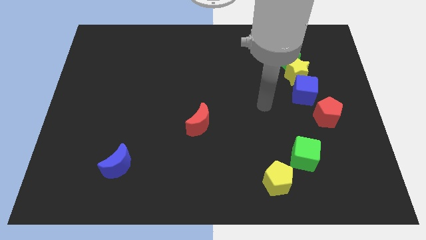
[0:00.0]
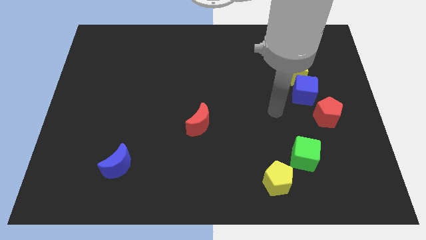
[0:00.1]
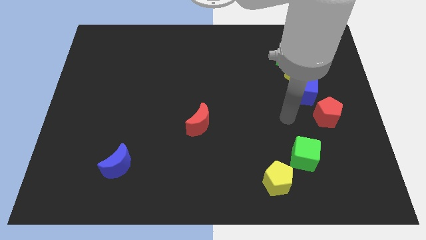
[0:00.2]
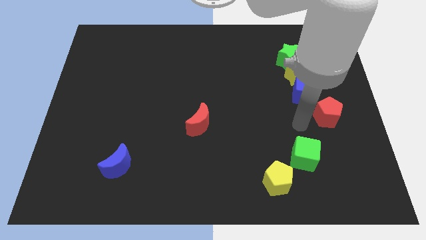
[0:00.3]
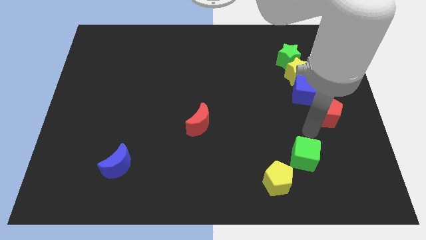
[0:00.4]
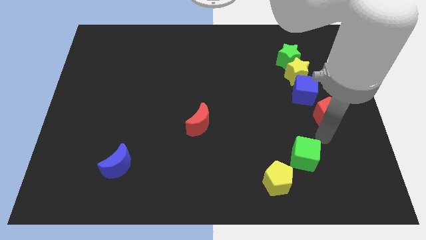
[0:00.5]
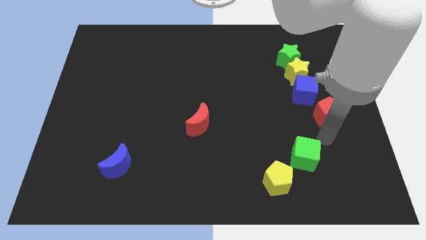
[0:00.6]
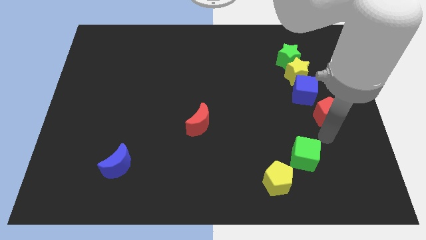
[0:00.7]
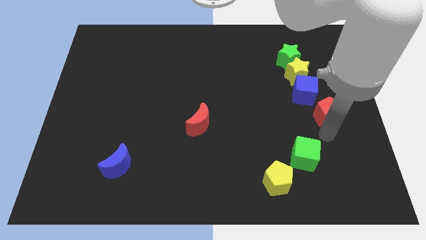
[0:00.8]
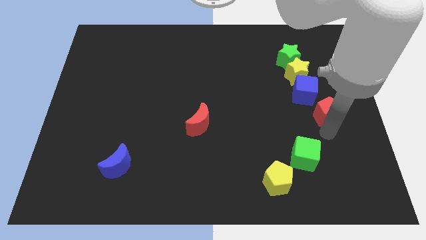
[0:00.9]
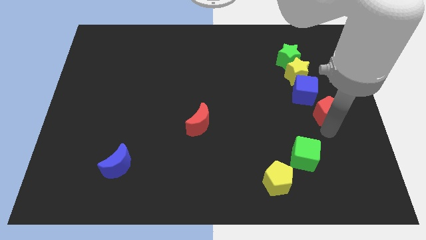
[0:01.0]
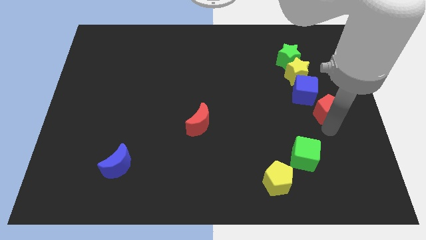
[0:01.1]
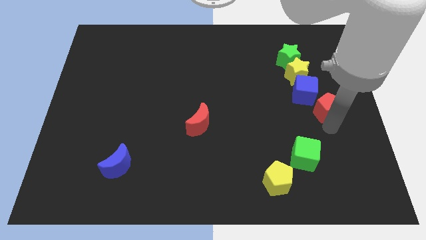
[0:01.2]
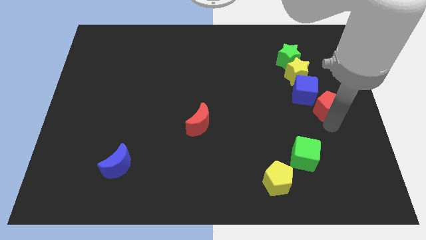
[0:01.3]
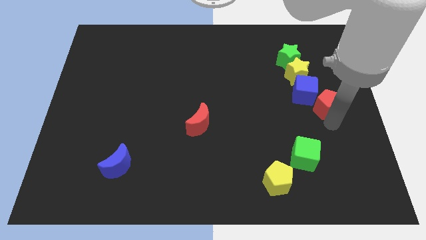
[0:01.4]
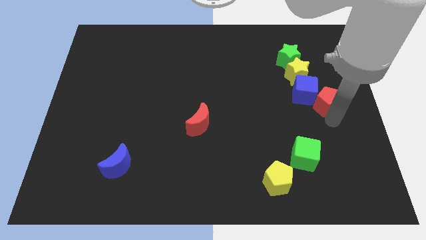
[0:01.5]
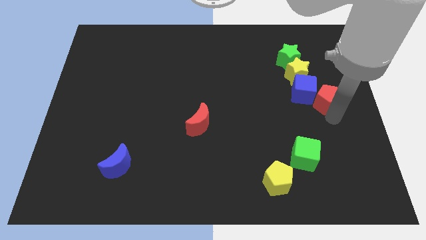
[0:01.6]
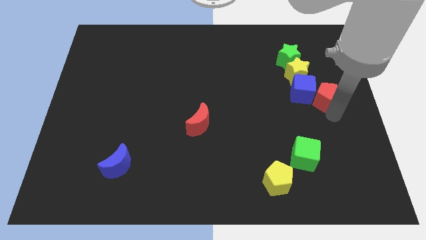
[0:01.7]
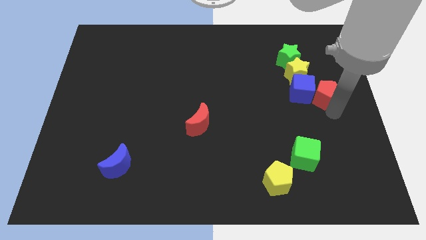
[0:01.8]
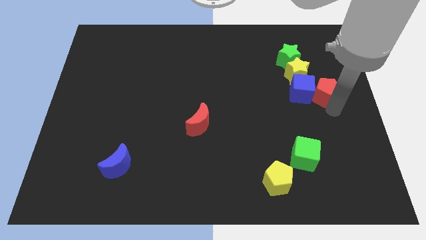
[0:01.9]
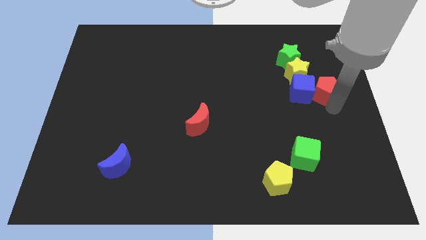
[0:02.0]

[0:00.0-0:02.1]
move the red pentagon a little bit up

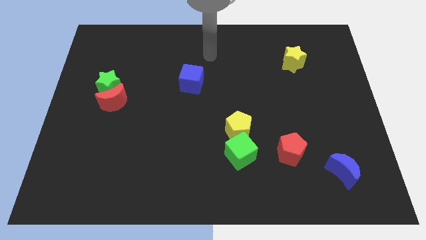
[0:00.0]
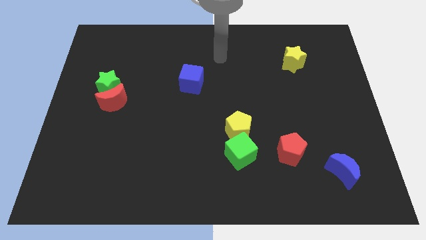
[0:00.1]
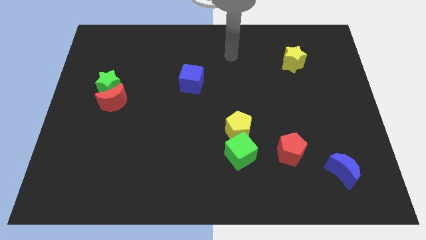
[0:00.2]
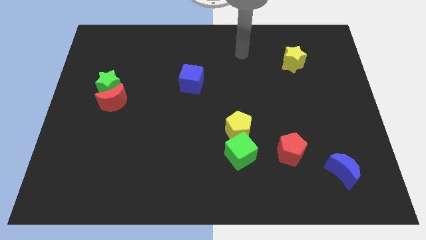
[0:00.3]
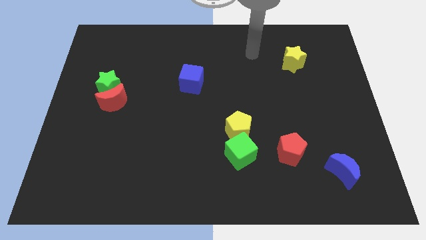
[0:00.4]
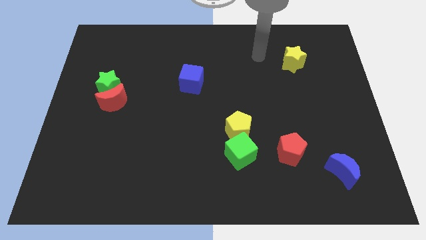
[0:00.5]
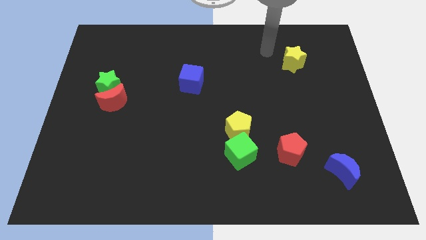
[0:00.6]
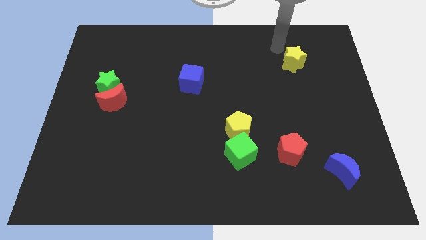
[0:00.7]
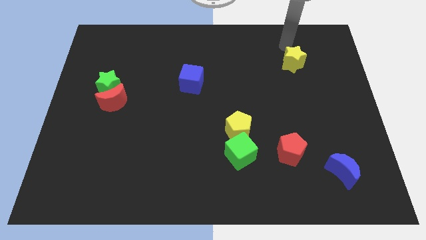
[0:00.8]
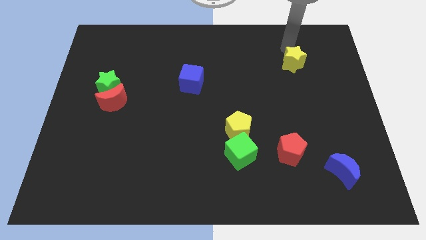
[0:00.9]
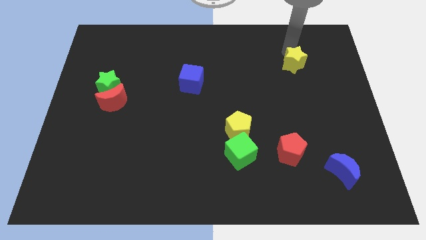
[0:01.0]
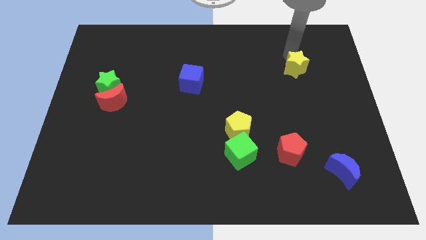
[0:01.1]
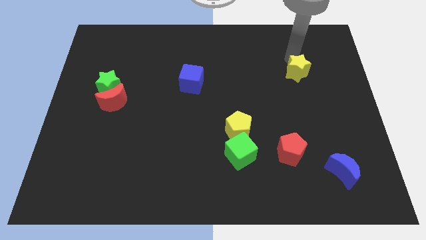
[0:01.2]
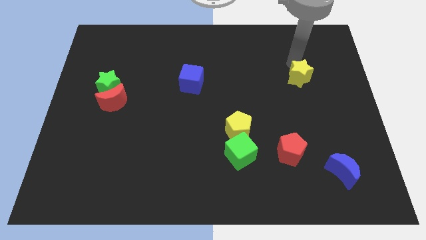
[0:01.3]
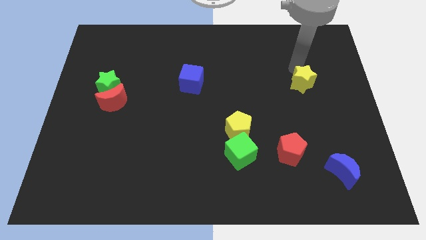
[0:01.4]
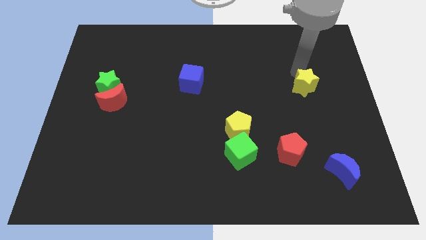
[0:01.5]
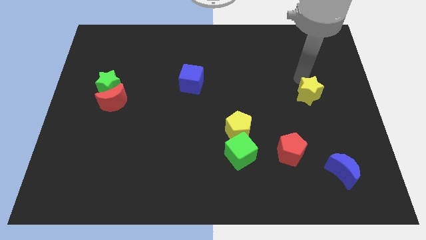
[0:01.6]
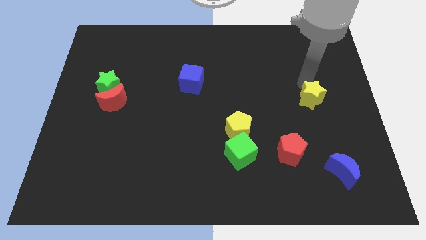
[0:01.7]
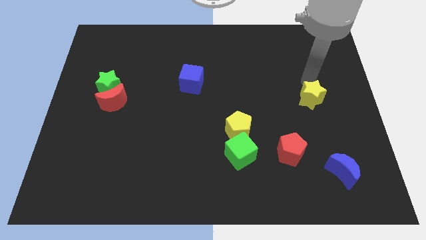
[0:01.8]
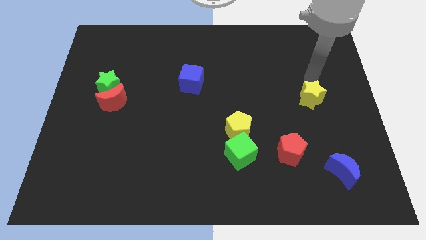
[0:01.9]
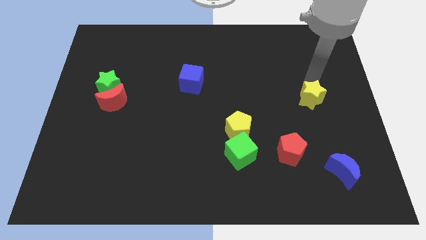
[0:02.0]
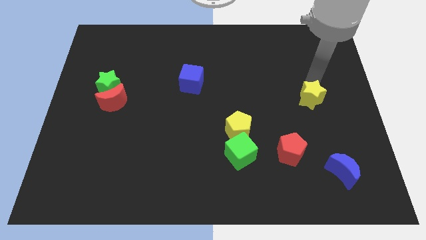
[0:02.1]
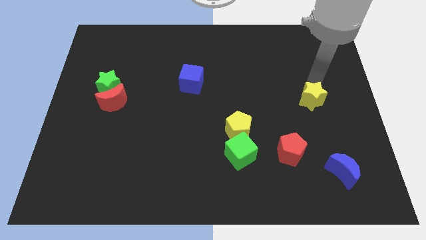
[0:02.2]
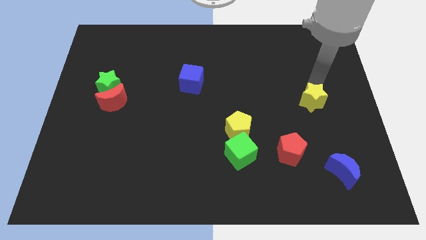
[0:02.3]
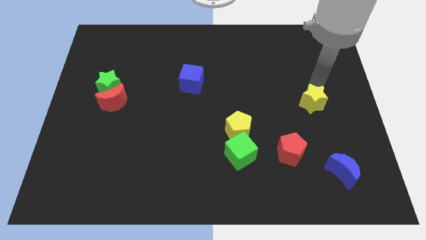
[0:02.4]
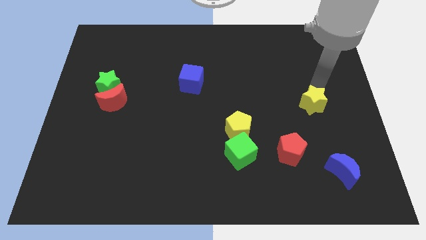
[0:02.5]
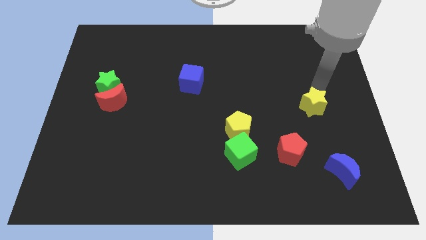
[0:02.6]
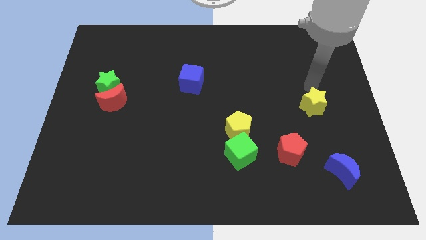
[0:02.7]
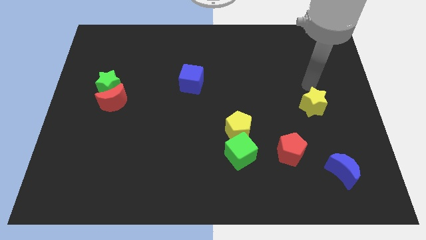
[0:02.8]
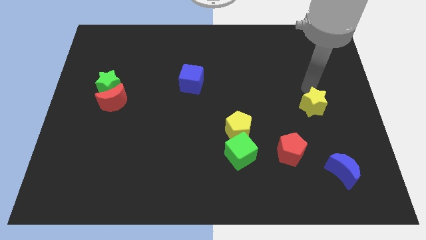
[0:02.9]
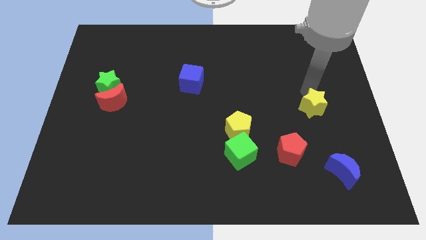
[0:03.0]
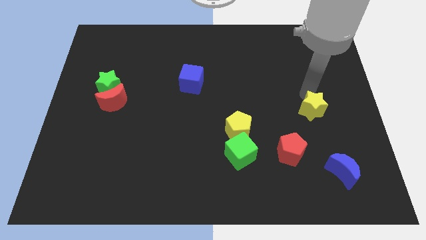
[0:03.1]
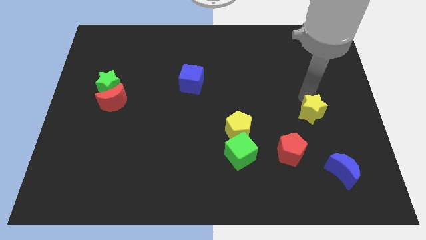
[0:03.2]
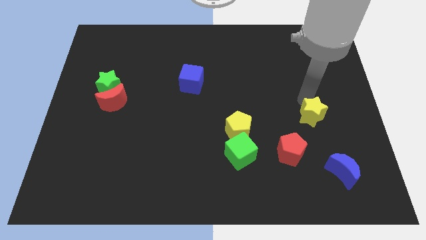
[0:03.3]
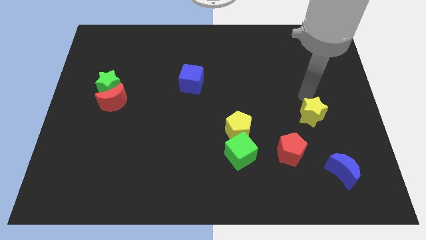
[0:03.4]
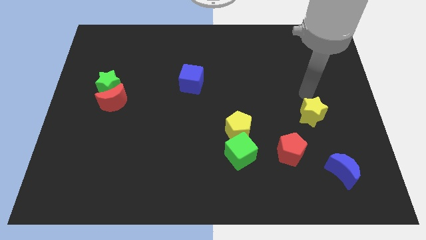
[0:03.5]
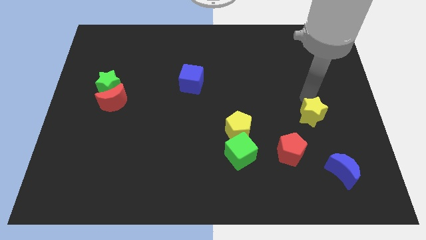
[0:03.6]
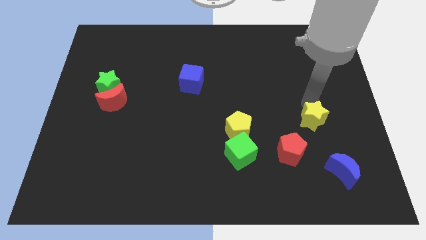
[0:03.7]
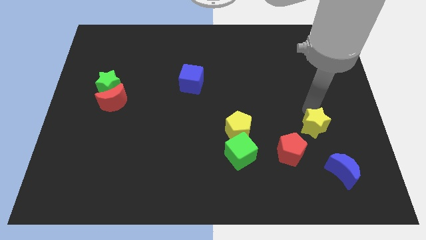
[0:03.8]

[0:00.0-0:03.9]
slide the yellow star downwards

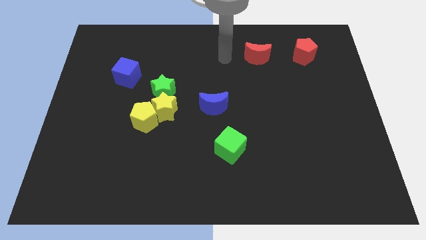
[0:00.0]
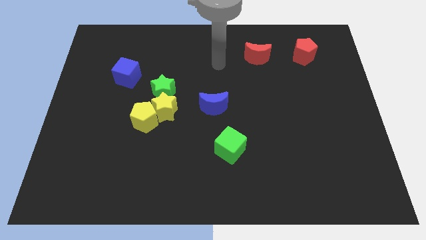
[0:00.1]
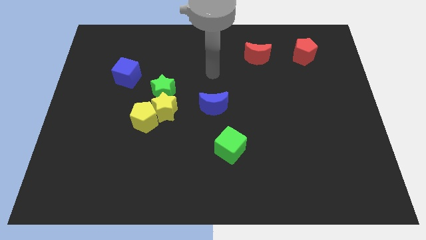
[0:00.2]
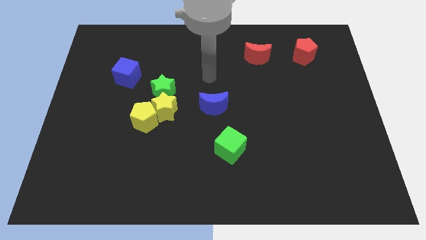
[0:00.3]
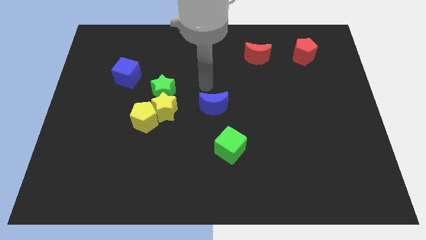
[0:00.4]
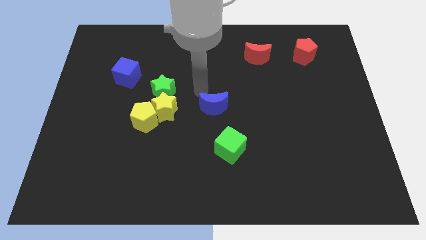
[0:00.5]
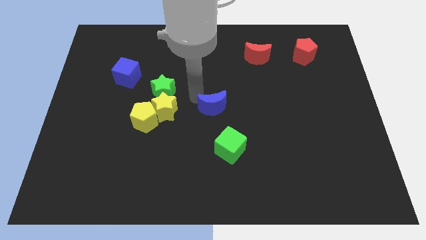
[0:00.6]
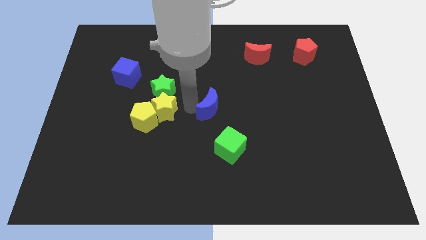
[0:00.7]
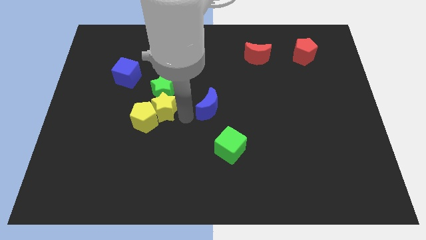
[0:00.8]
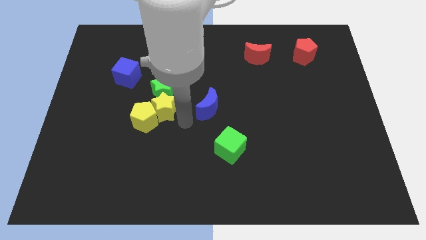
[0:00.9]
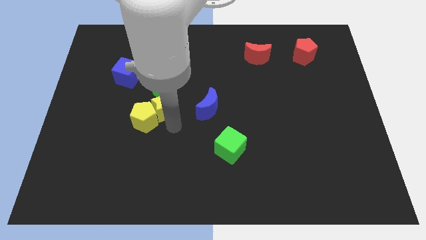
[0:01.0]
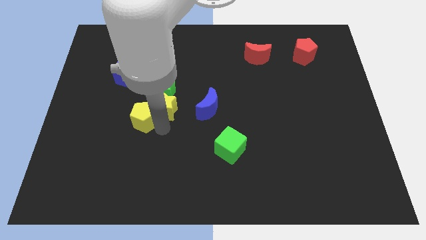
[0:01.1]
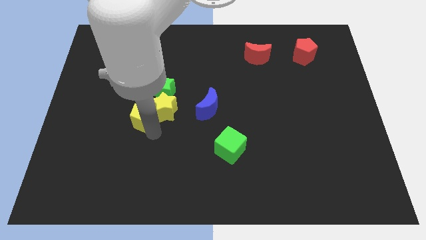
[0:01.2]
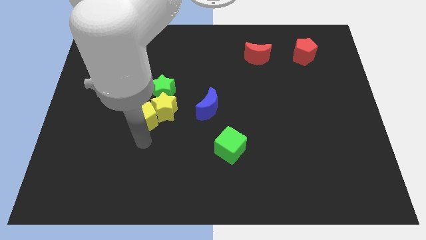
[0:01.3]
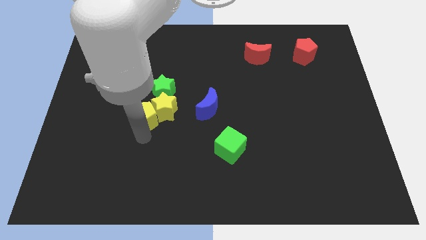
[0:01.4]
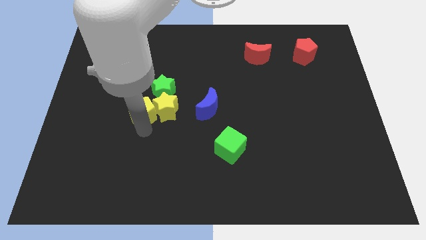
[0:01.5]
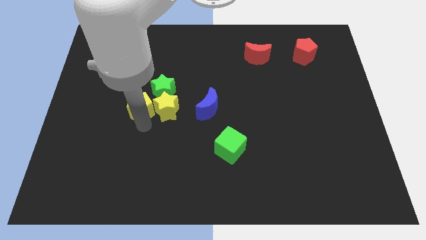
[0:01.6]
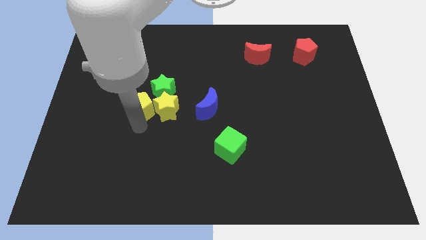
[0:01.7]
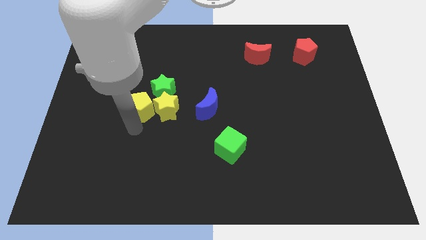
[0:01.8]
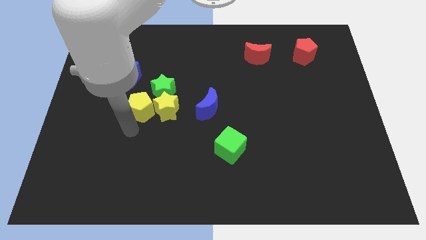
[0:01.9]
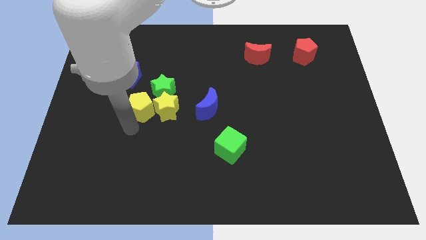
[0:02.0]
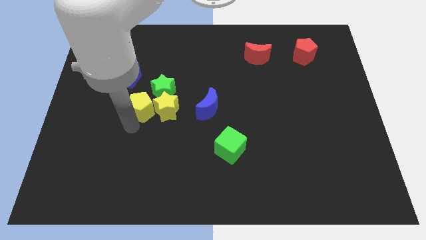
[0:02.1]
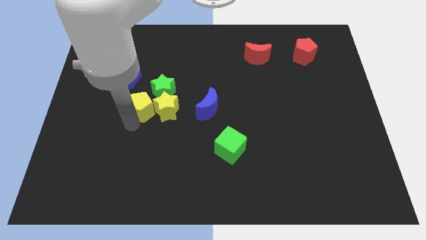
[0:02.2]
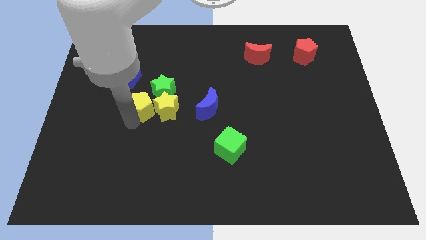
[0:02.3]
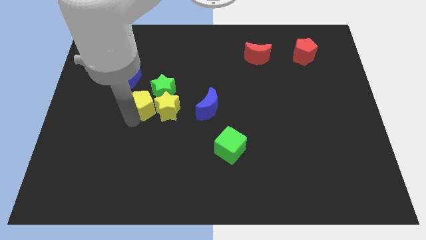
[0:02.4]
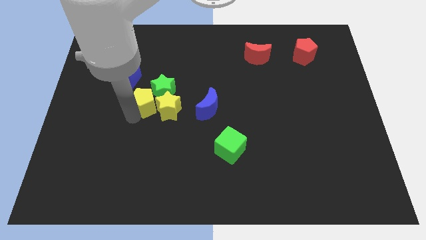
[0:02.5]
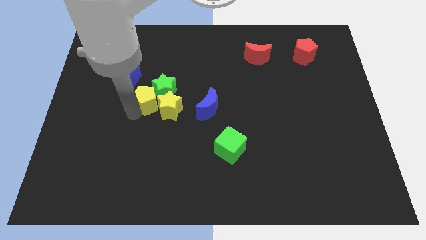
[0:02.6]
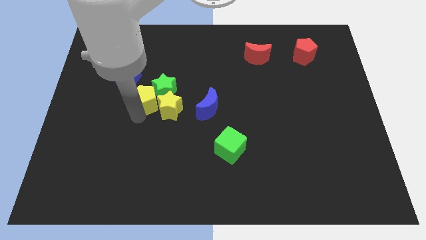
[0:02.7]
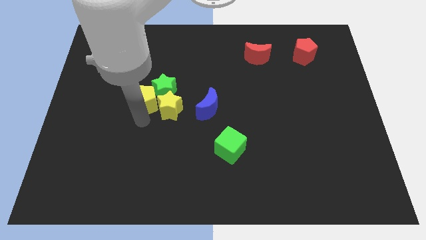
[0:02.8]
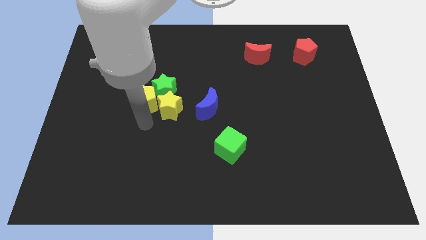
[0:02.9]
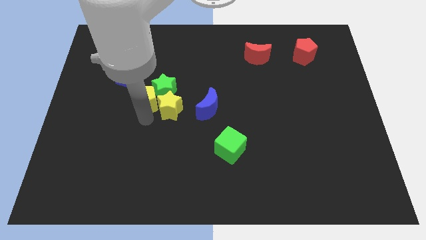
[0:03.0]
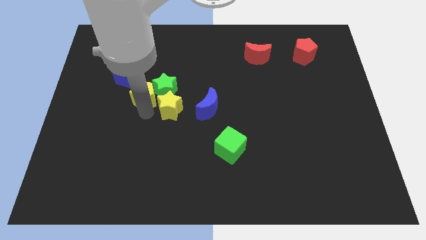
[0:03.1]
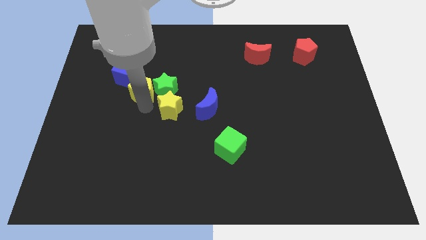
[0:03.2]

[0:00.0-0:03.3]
slightly push the yellow pentagon upwards
